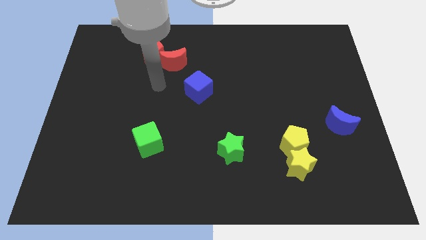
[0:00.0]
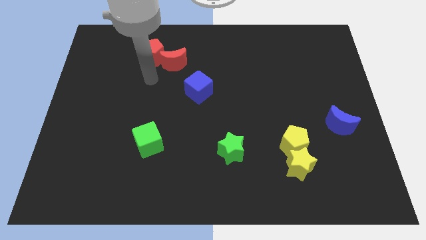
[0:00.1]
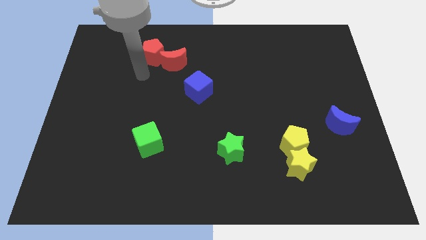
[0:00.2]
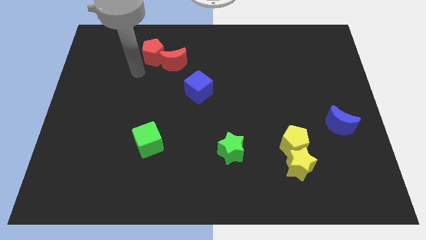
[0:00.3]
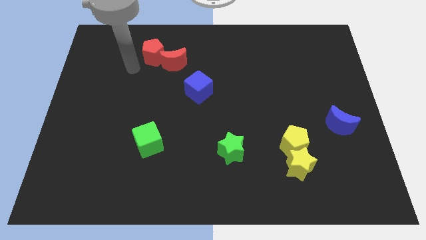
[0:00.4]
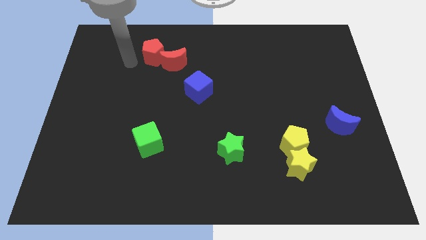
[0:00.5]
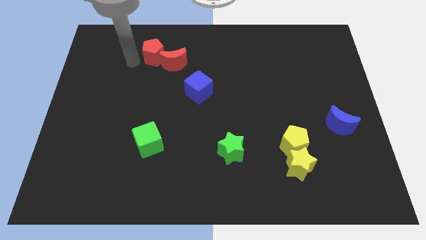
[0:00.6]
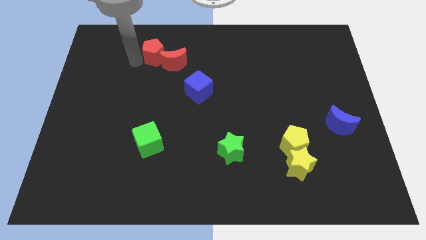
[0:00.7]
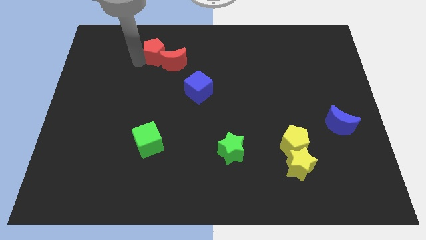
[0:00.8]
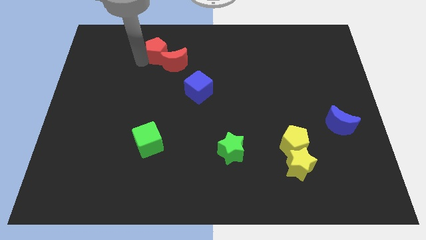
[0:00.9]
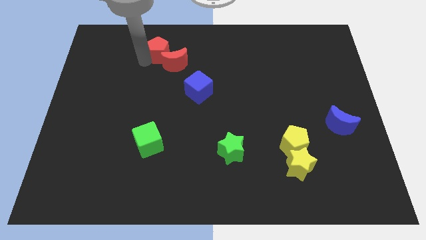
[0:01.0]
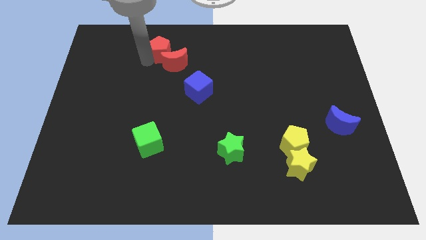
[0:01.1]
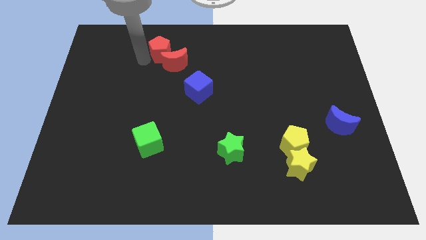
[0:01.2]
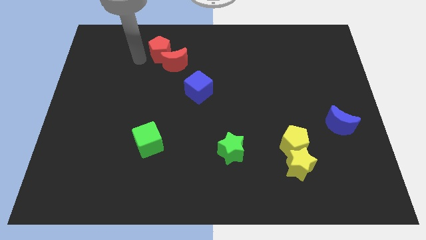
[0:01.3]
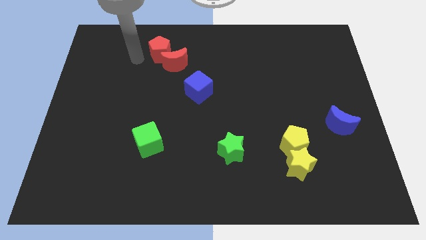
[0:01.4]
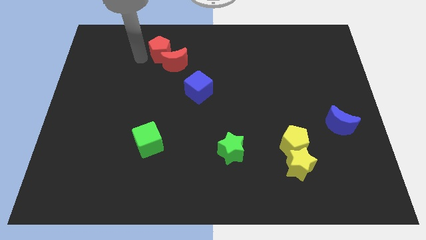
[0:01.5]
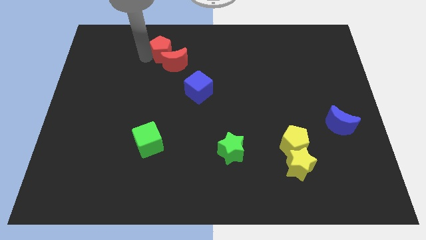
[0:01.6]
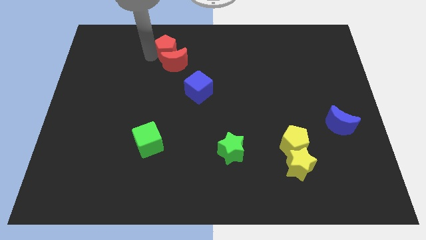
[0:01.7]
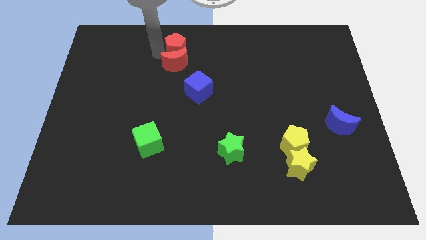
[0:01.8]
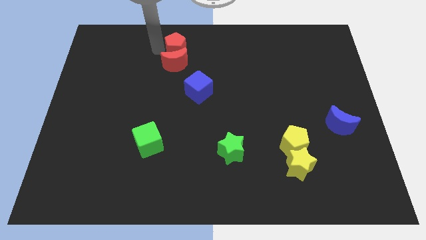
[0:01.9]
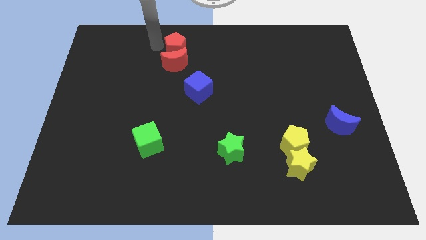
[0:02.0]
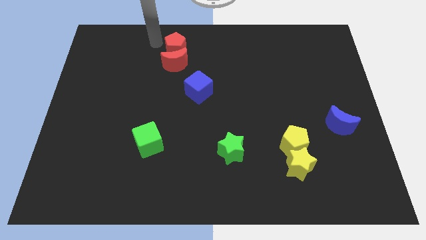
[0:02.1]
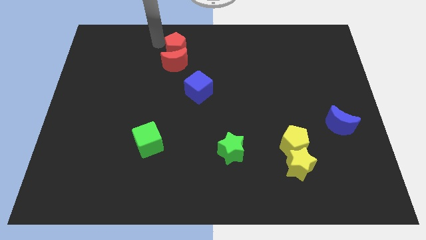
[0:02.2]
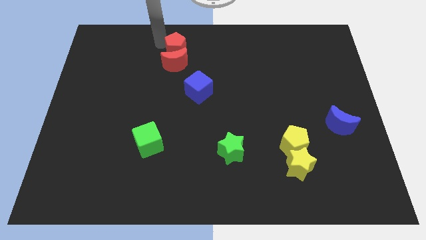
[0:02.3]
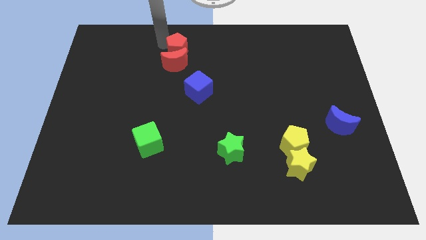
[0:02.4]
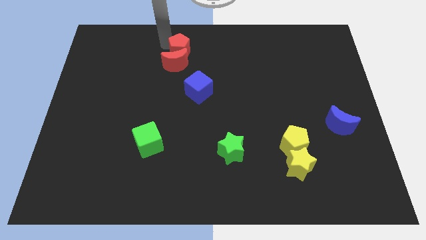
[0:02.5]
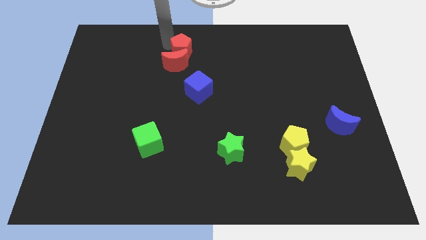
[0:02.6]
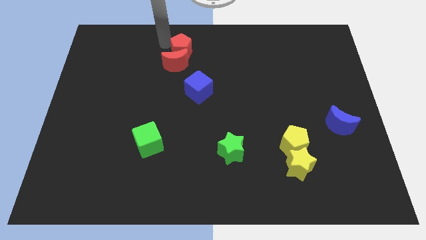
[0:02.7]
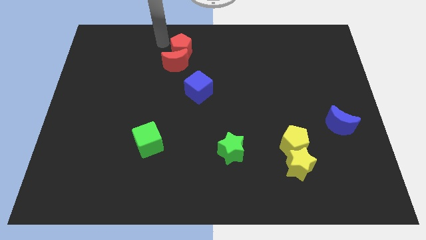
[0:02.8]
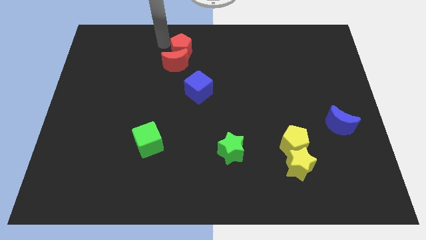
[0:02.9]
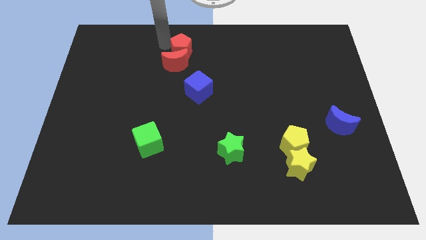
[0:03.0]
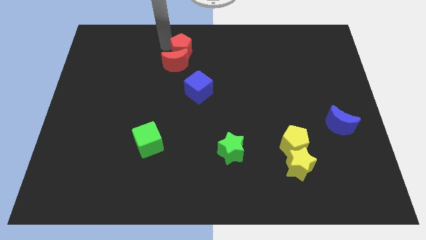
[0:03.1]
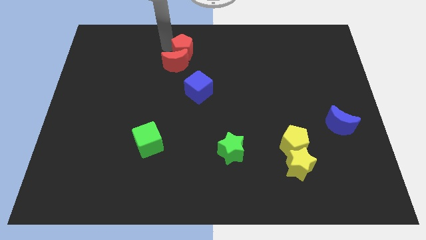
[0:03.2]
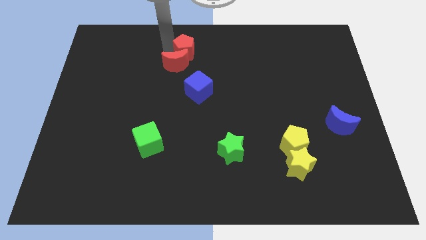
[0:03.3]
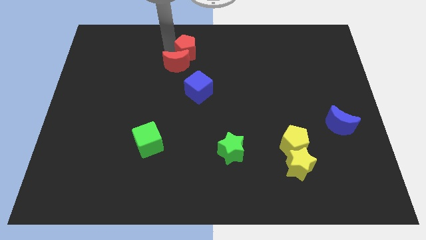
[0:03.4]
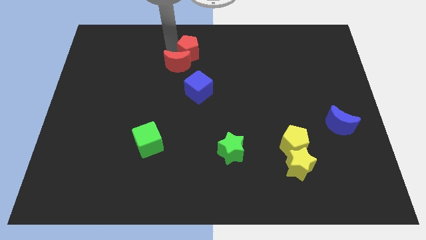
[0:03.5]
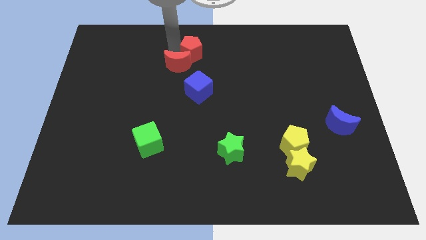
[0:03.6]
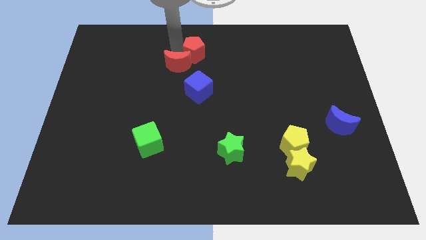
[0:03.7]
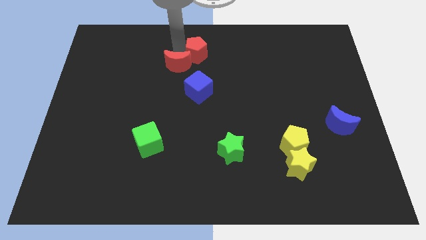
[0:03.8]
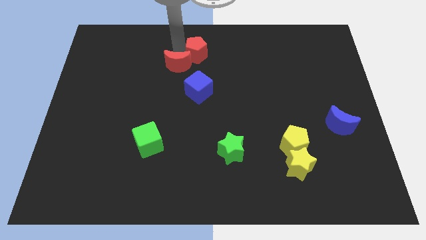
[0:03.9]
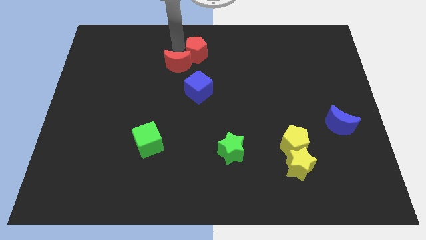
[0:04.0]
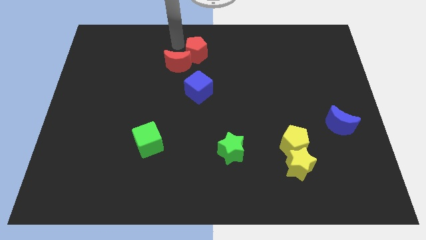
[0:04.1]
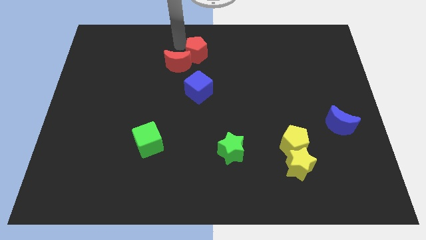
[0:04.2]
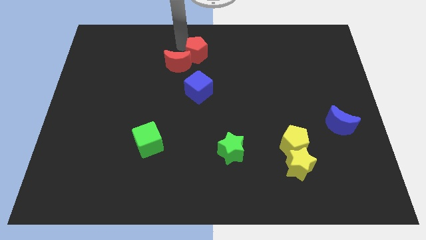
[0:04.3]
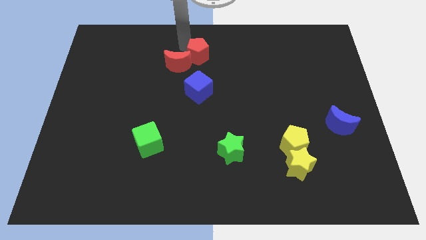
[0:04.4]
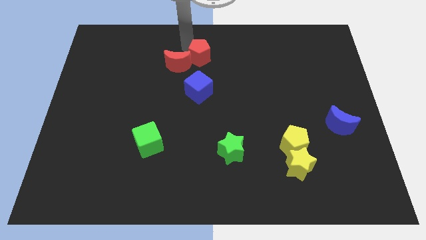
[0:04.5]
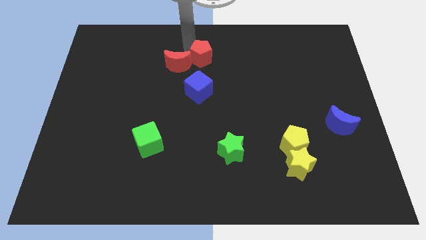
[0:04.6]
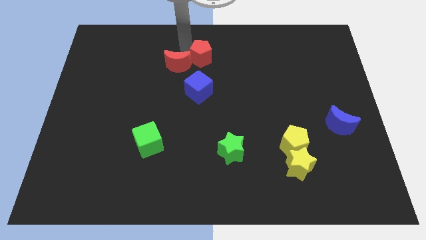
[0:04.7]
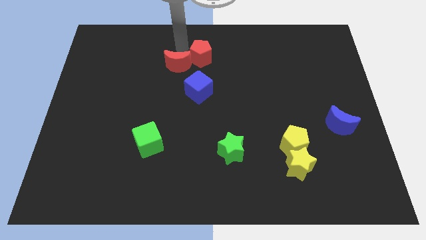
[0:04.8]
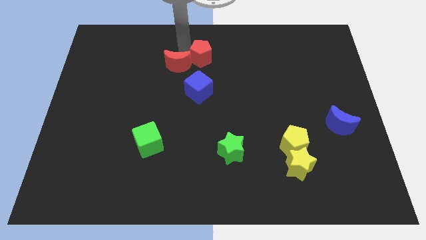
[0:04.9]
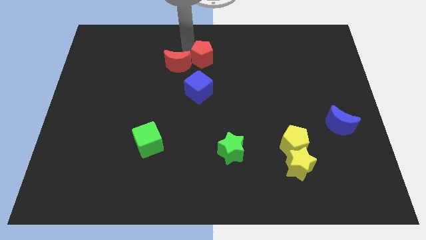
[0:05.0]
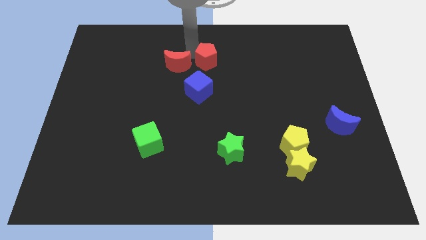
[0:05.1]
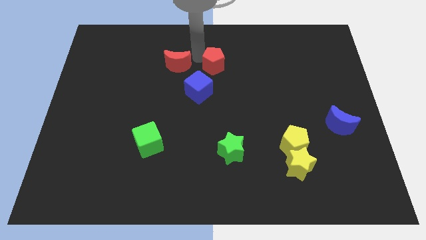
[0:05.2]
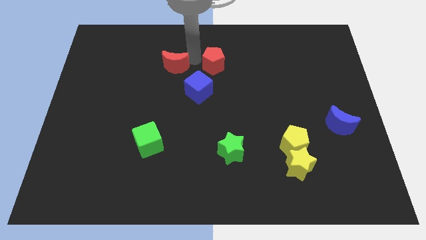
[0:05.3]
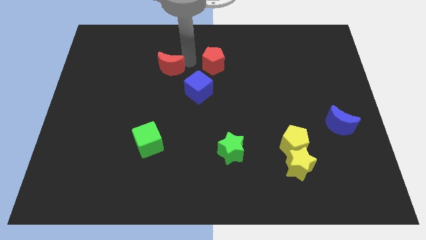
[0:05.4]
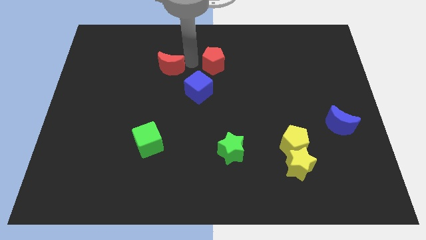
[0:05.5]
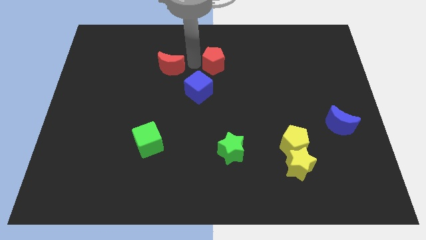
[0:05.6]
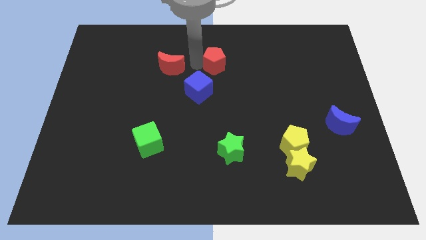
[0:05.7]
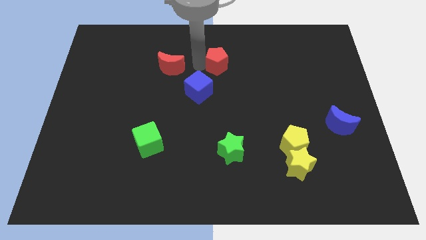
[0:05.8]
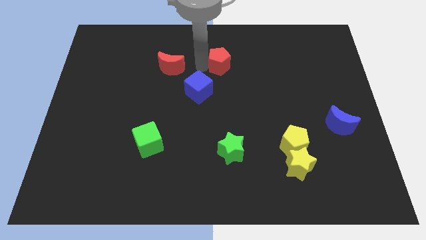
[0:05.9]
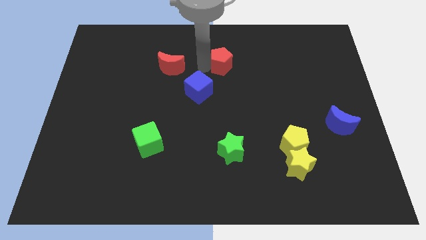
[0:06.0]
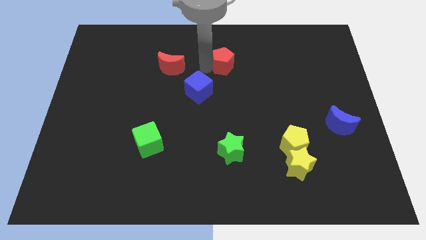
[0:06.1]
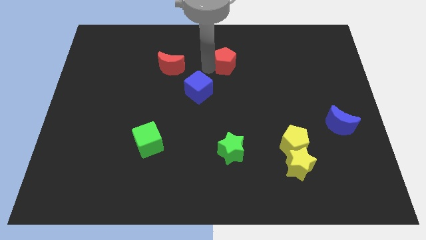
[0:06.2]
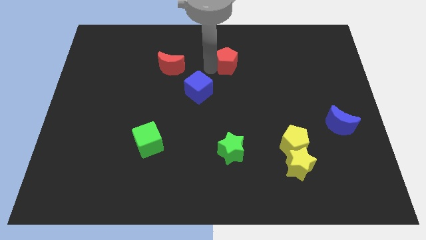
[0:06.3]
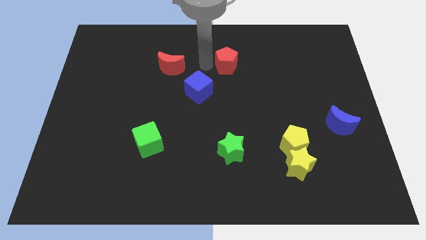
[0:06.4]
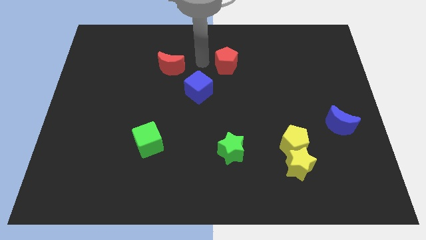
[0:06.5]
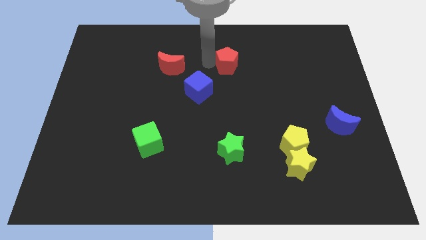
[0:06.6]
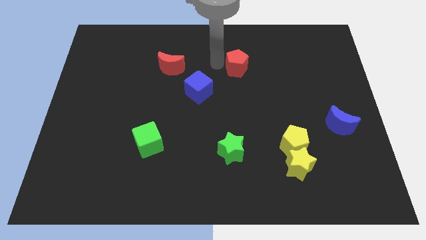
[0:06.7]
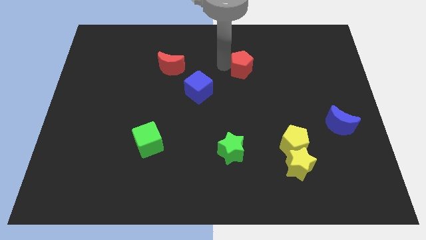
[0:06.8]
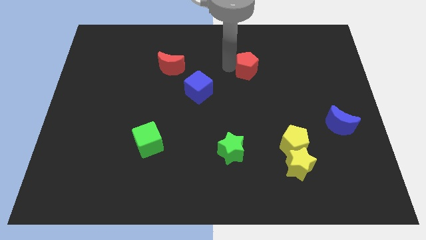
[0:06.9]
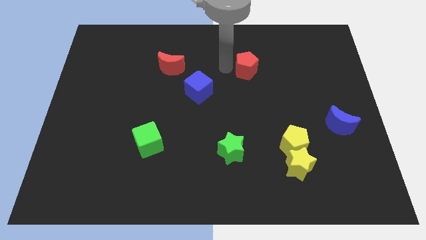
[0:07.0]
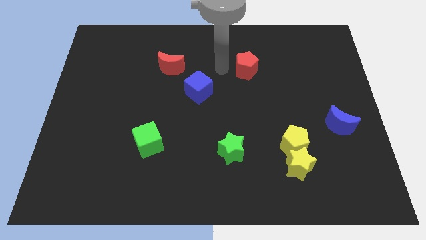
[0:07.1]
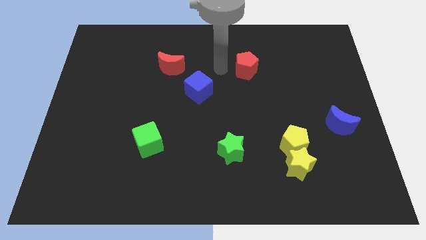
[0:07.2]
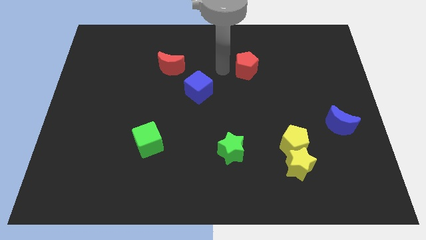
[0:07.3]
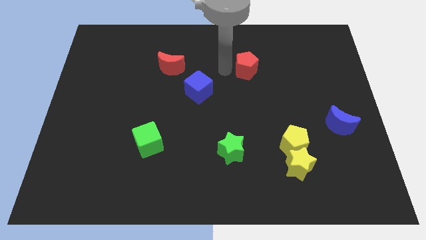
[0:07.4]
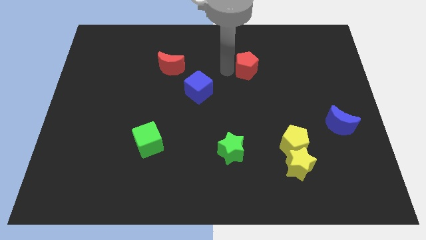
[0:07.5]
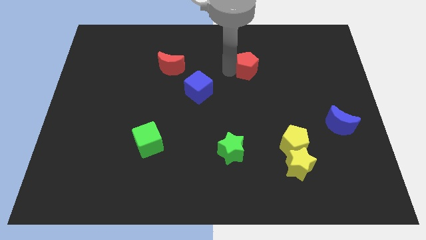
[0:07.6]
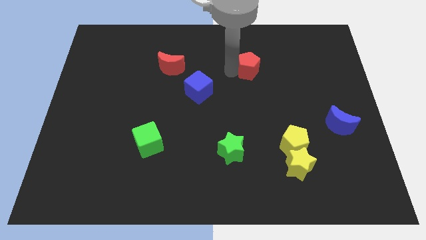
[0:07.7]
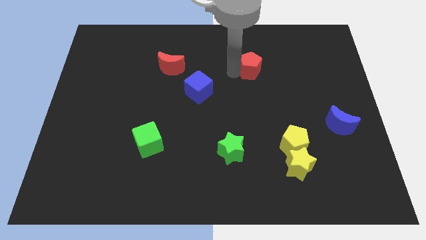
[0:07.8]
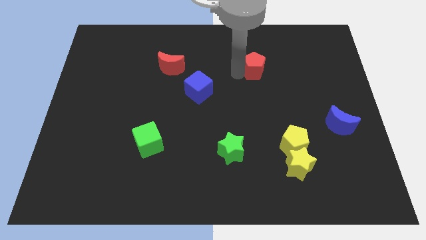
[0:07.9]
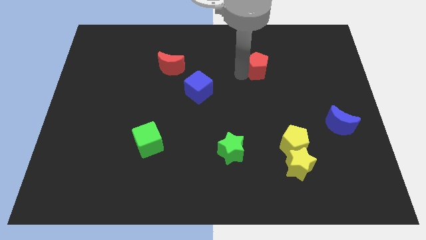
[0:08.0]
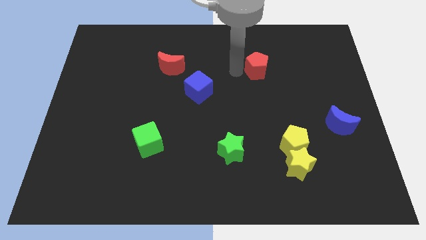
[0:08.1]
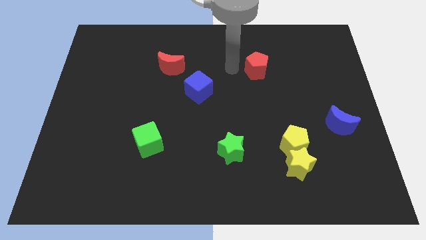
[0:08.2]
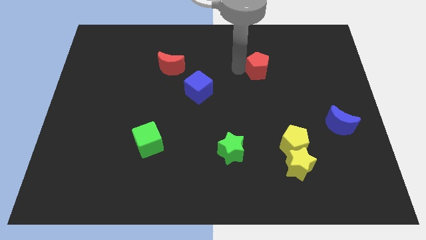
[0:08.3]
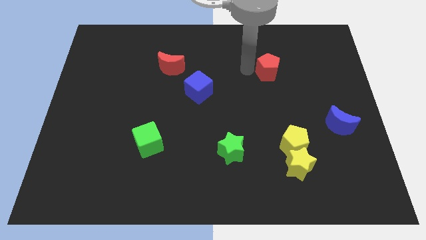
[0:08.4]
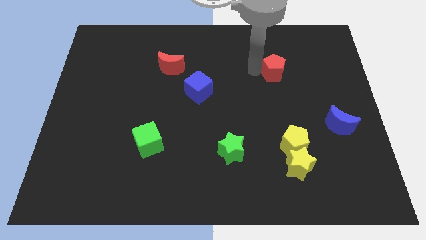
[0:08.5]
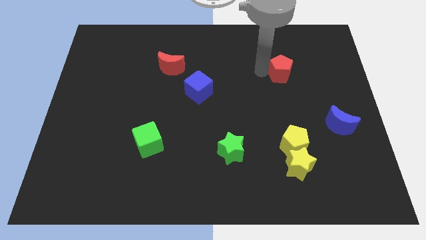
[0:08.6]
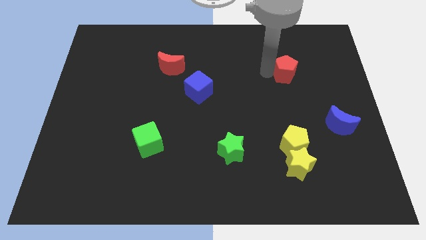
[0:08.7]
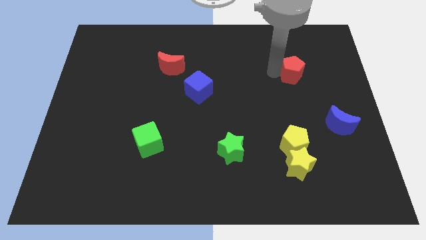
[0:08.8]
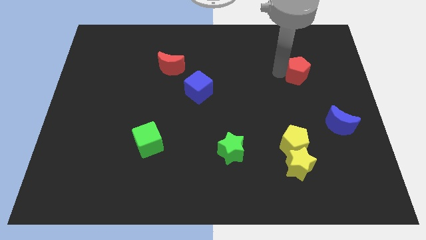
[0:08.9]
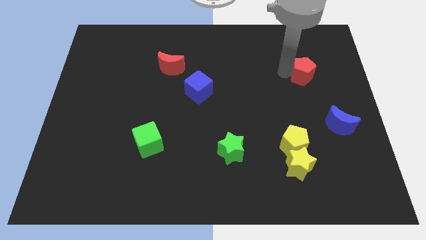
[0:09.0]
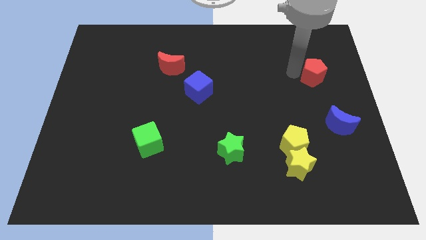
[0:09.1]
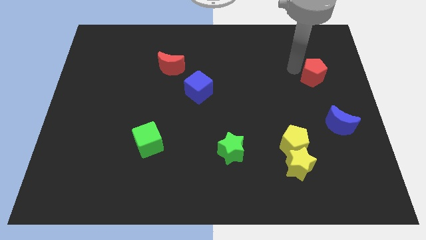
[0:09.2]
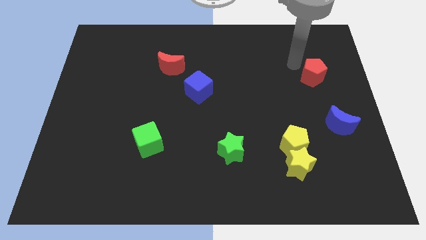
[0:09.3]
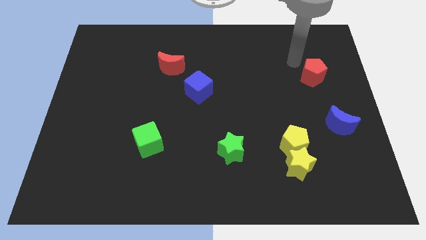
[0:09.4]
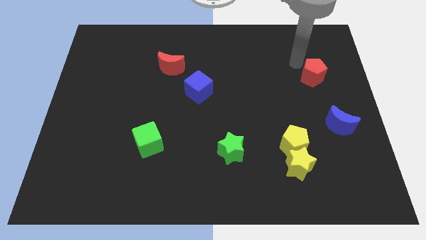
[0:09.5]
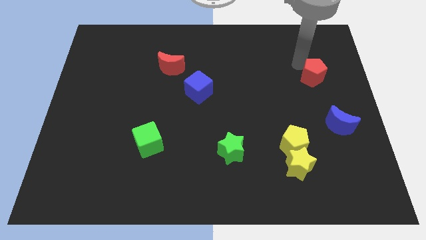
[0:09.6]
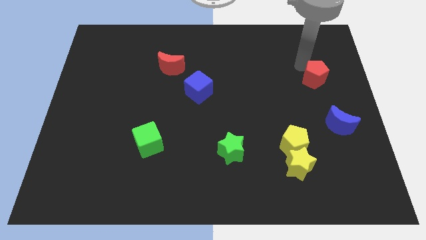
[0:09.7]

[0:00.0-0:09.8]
slide the red pentagon to the top of the blue moon
